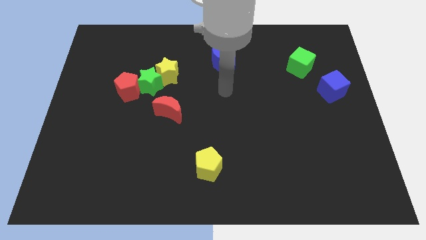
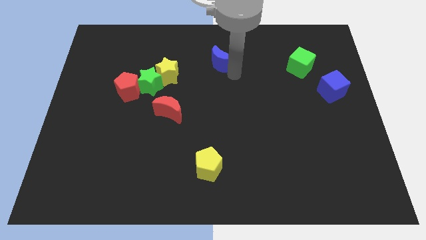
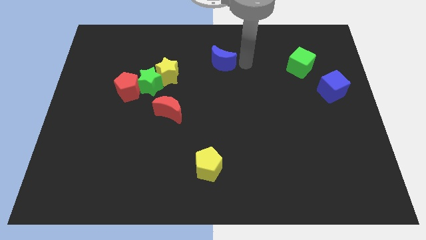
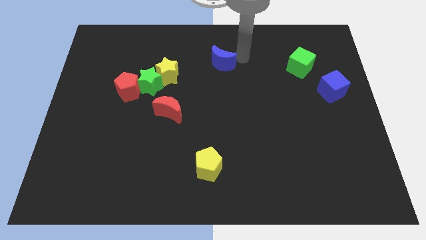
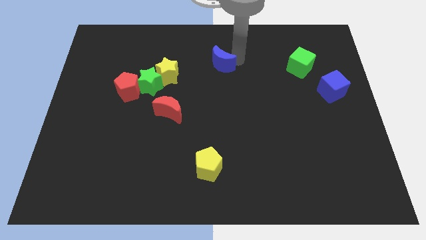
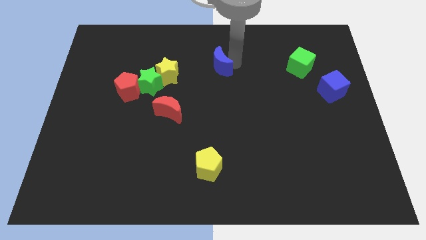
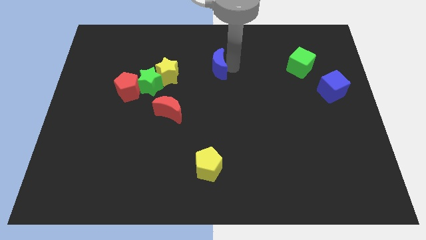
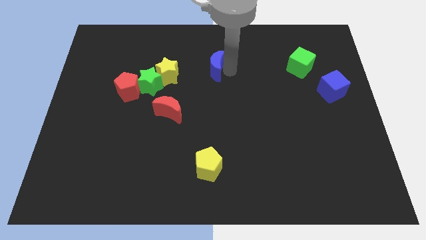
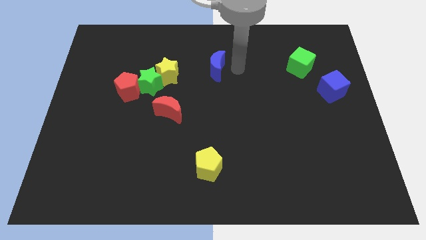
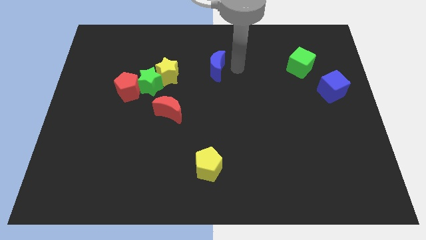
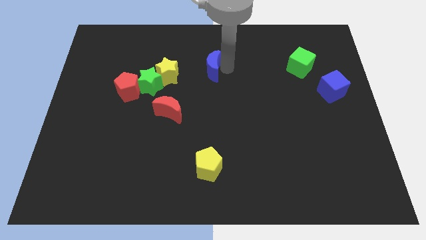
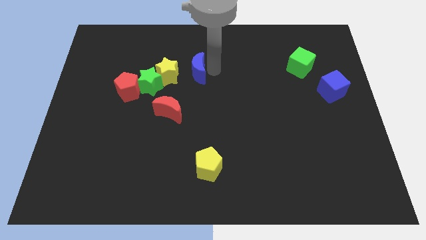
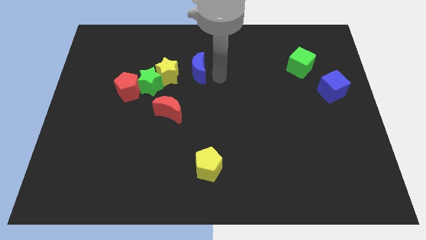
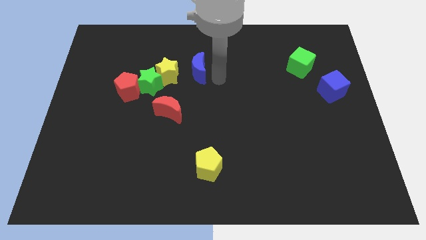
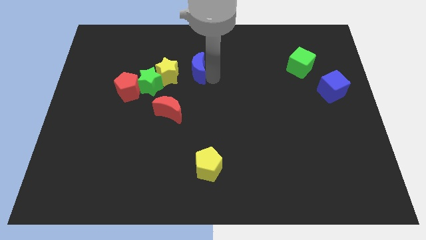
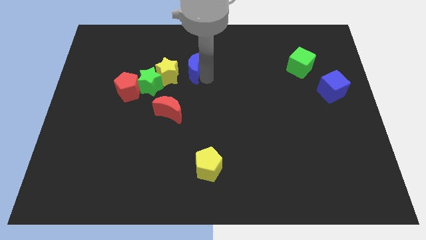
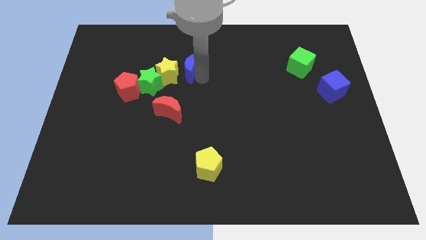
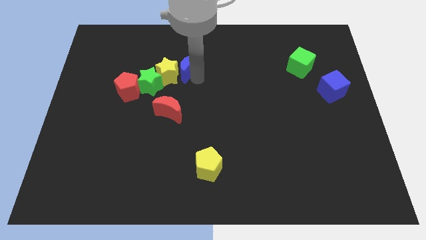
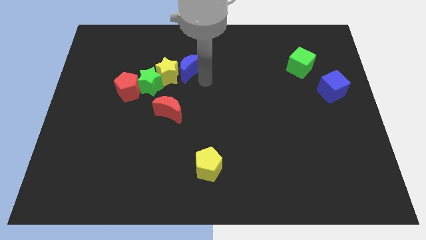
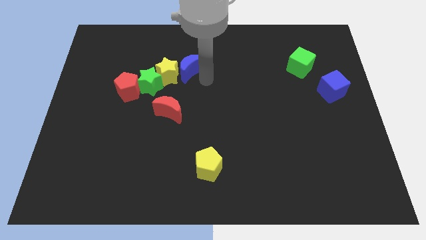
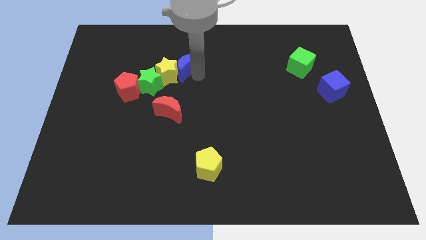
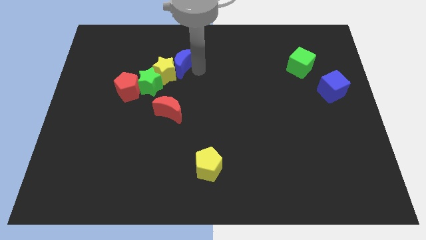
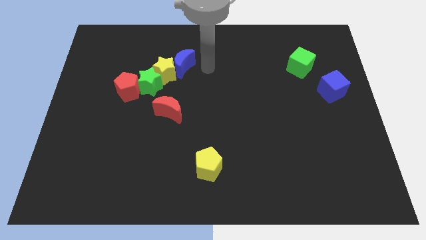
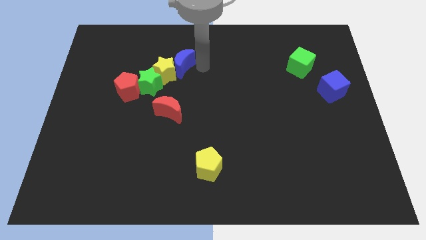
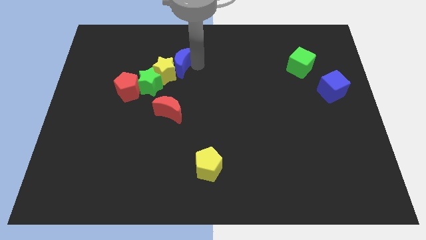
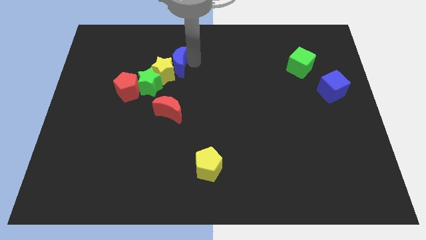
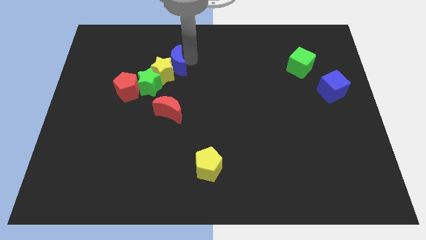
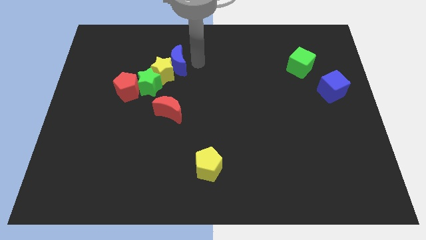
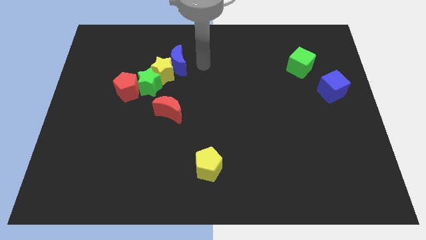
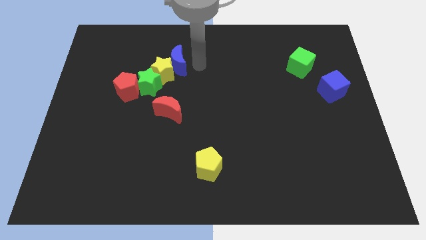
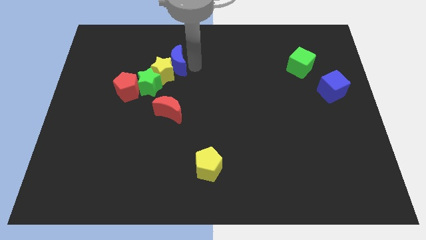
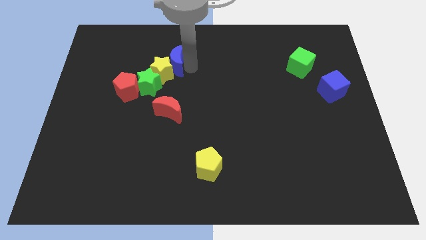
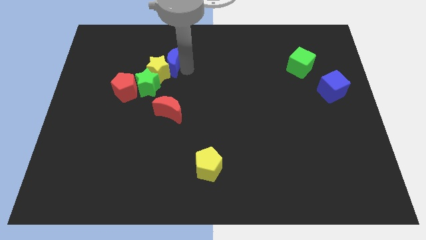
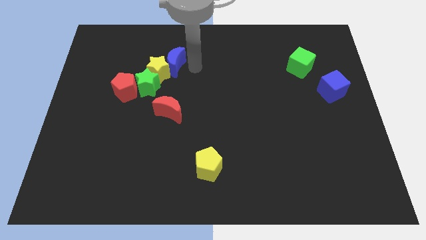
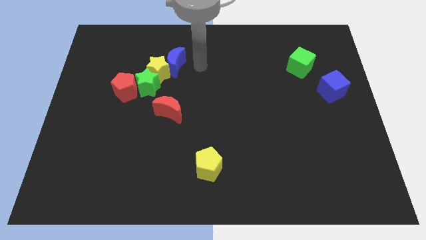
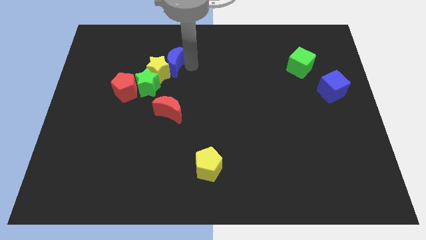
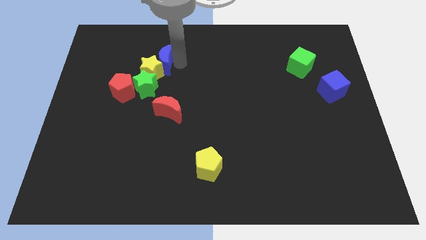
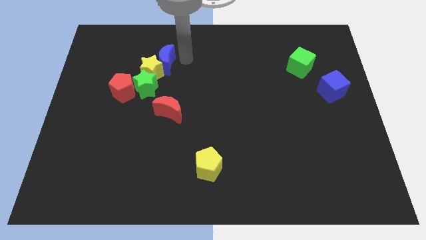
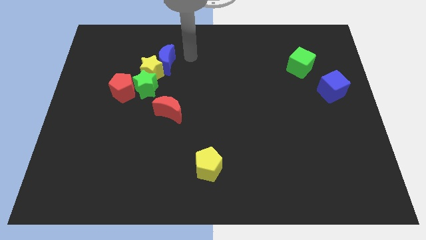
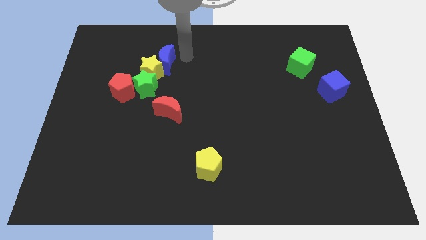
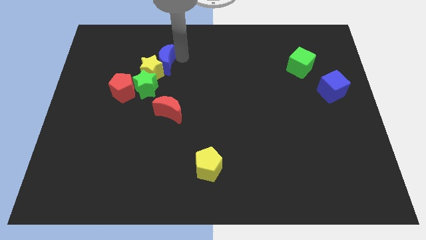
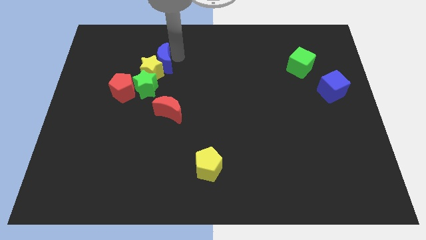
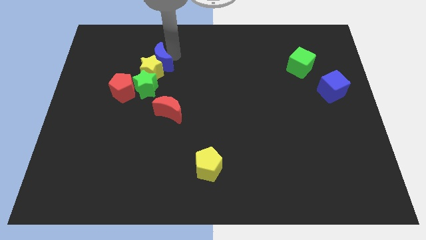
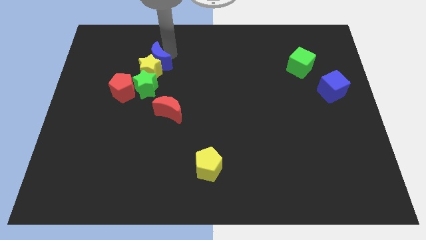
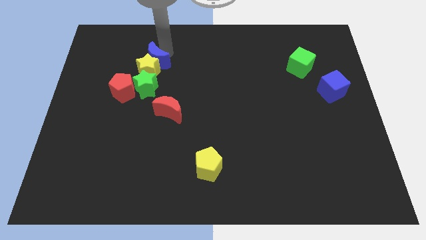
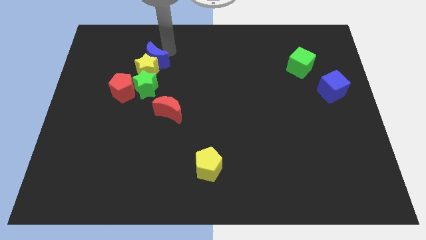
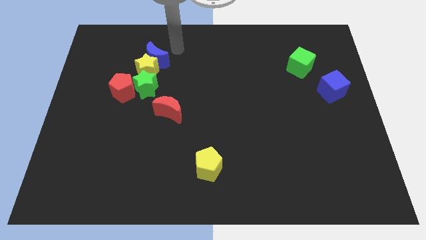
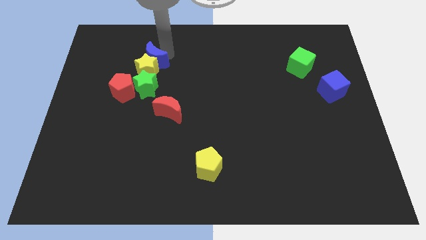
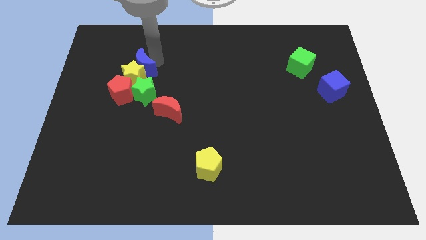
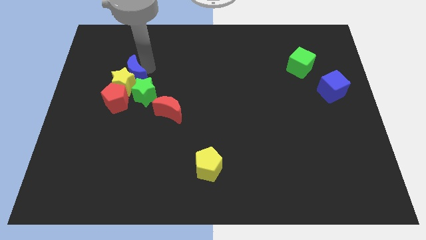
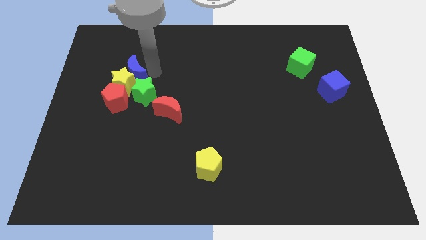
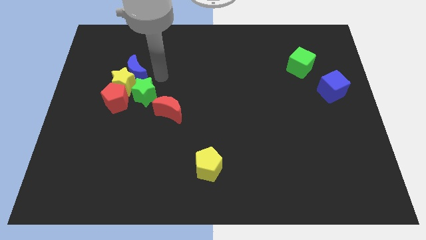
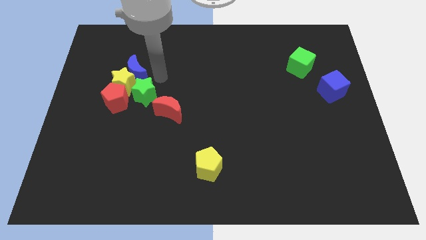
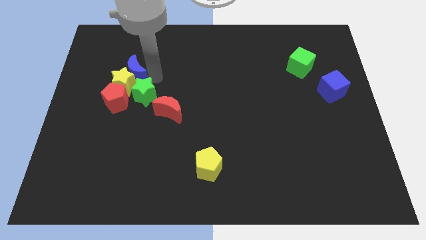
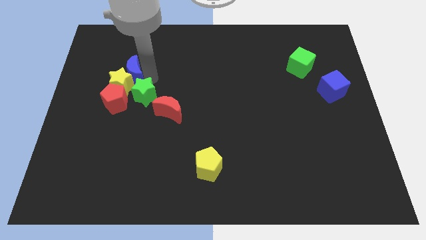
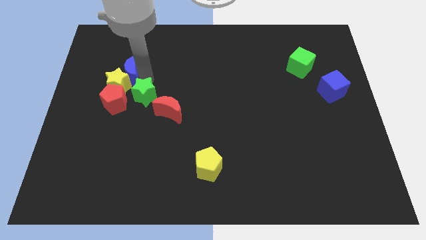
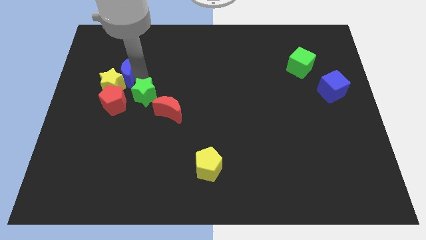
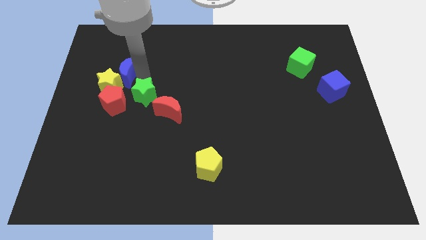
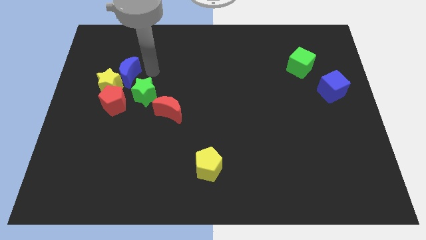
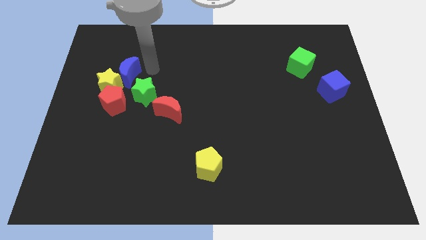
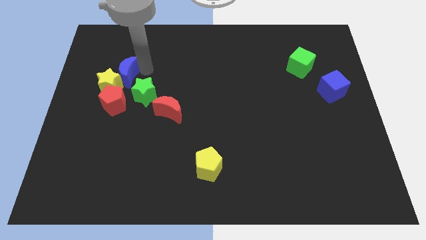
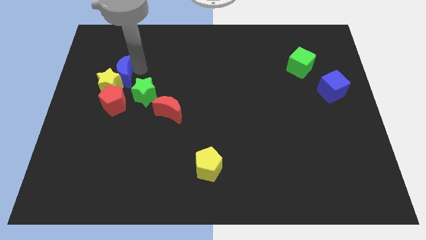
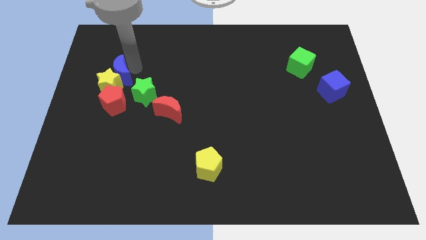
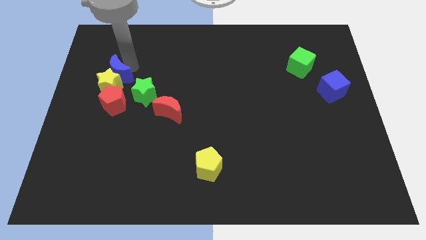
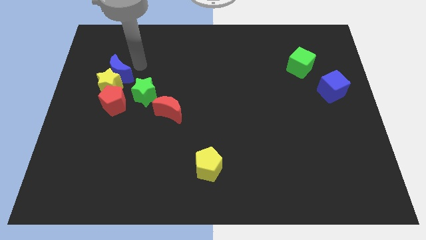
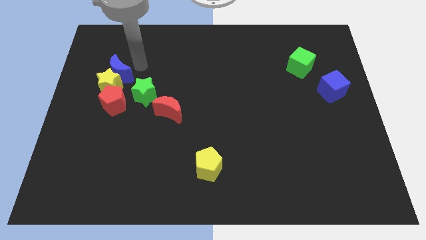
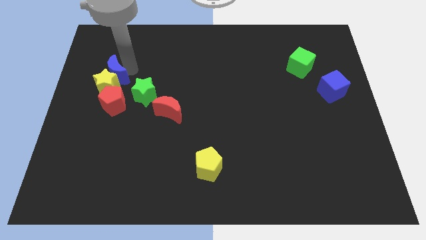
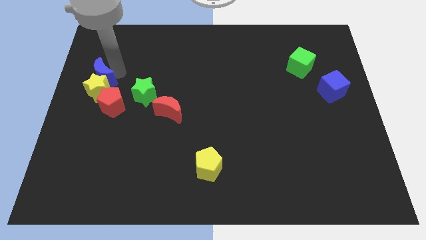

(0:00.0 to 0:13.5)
push the blue moon to the center left
